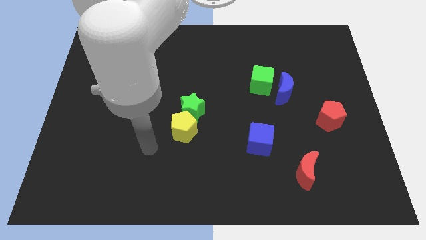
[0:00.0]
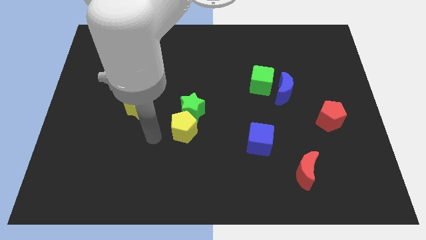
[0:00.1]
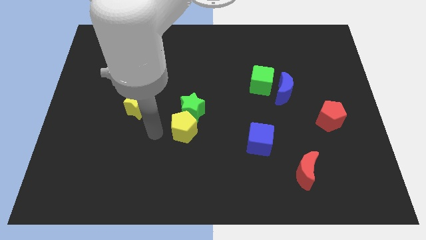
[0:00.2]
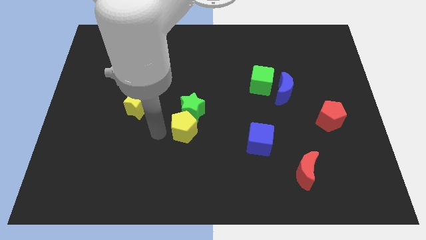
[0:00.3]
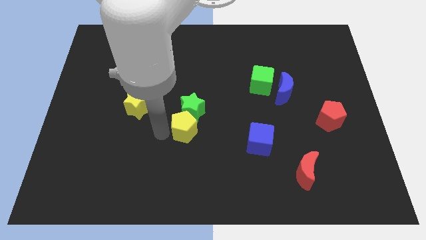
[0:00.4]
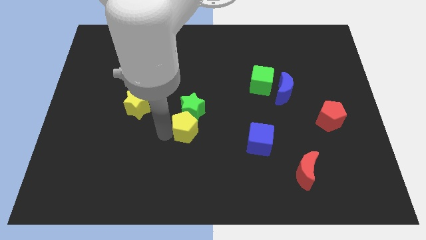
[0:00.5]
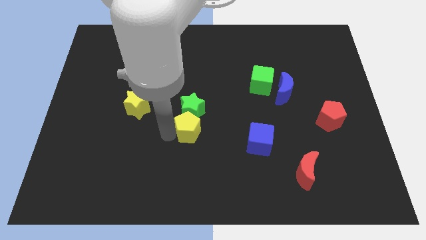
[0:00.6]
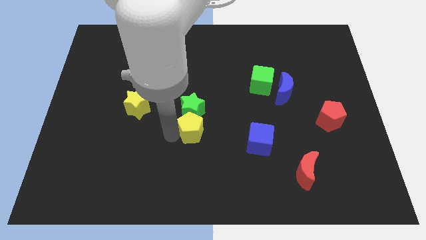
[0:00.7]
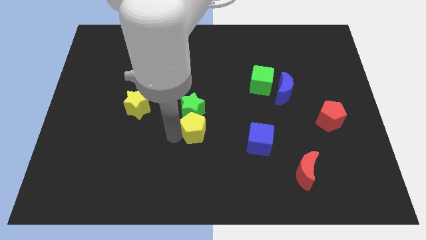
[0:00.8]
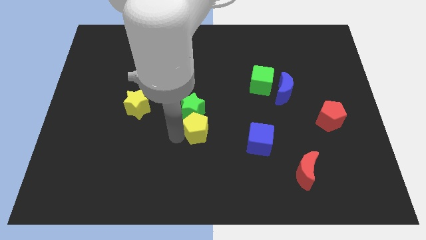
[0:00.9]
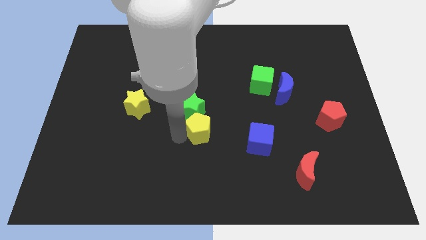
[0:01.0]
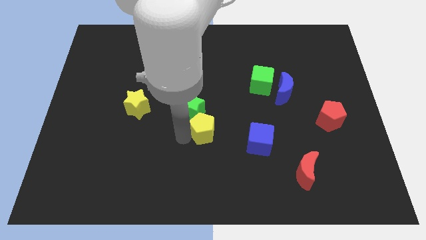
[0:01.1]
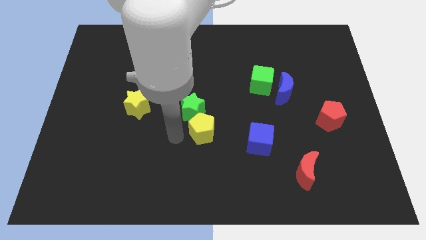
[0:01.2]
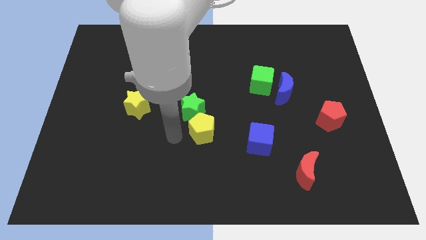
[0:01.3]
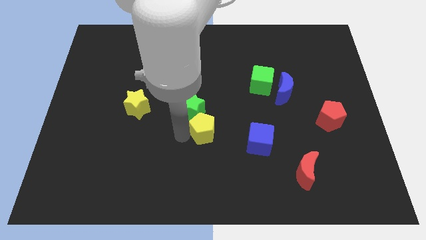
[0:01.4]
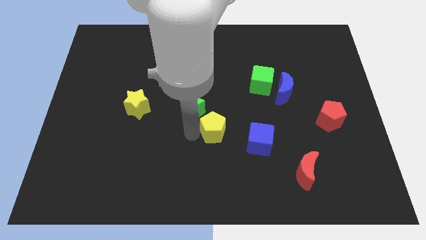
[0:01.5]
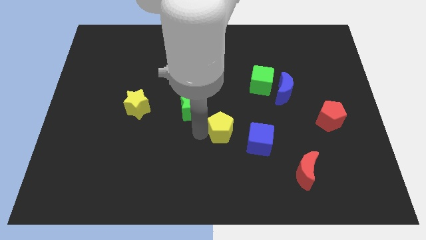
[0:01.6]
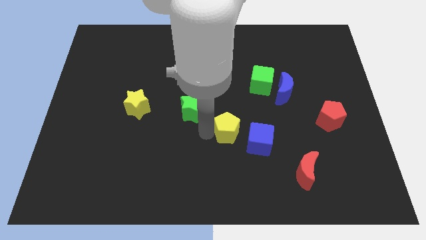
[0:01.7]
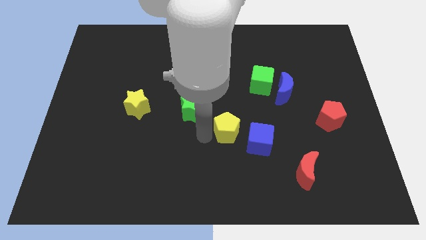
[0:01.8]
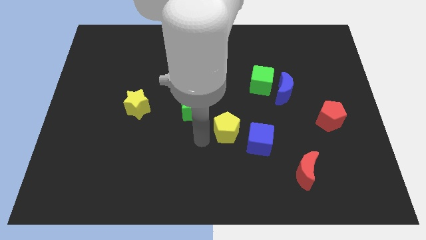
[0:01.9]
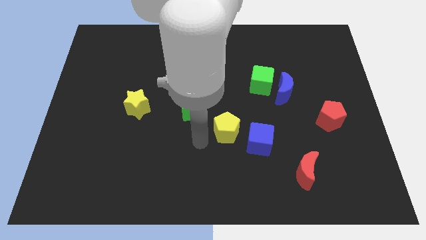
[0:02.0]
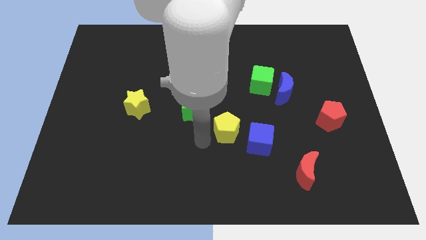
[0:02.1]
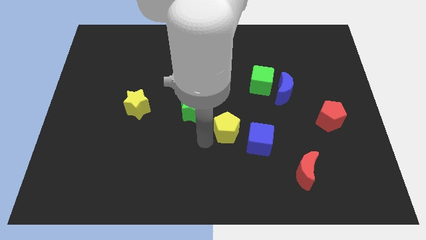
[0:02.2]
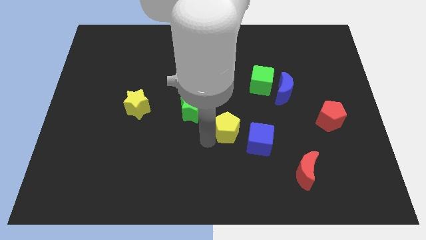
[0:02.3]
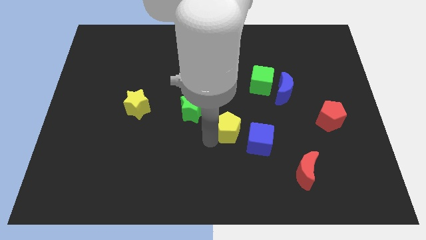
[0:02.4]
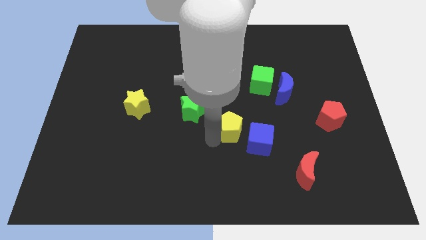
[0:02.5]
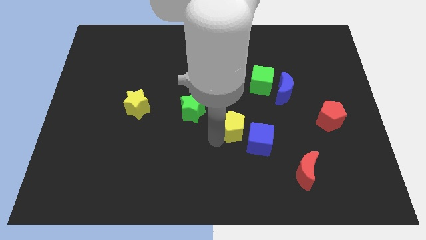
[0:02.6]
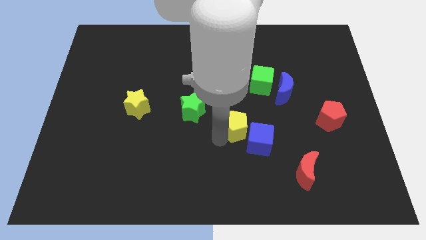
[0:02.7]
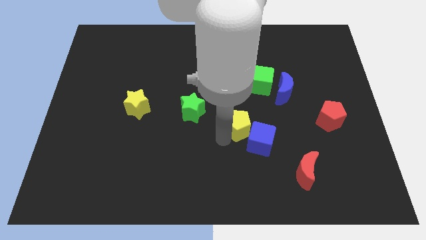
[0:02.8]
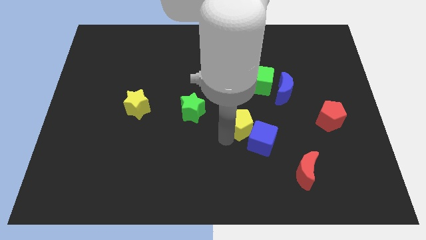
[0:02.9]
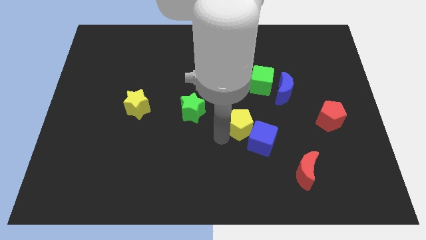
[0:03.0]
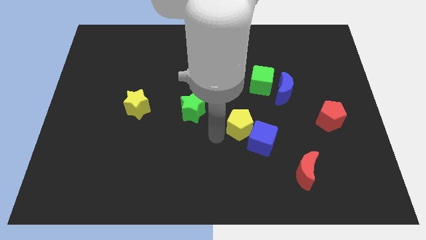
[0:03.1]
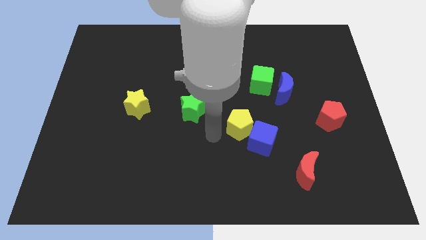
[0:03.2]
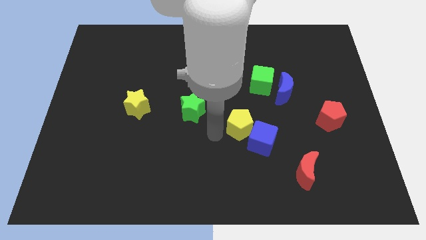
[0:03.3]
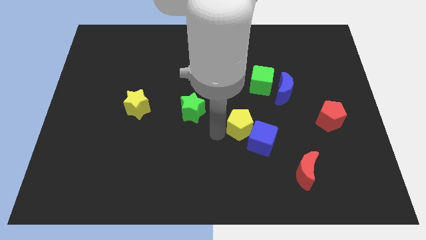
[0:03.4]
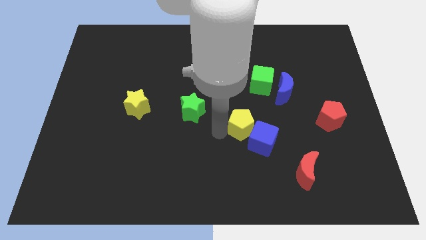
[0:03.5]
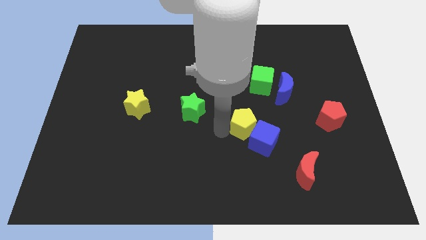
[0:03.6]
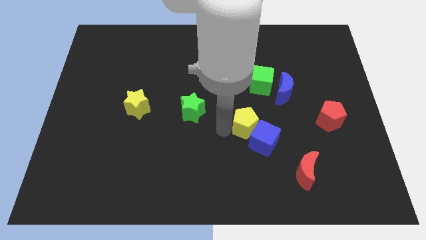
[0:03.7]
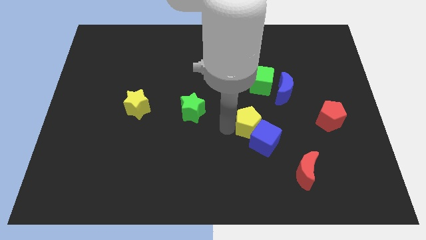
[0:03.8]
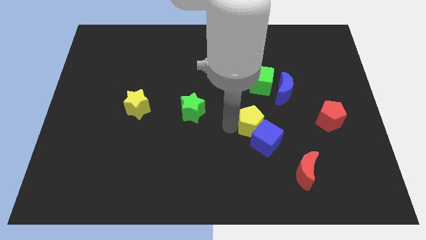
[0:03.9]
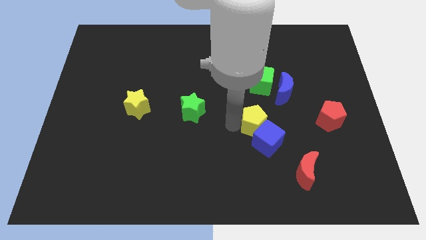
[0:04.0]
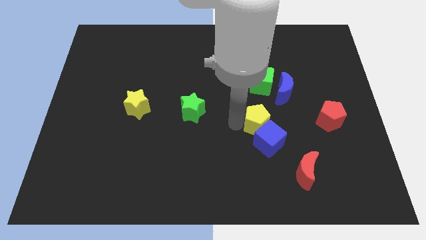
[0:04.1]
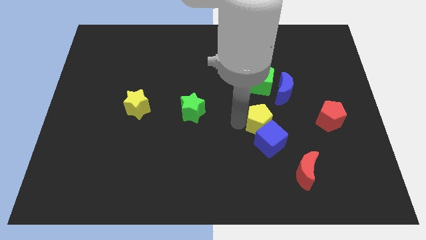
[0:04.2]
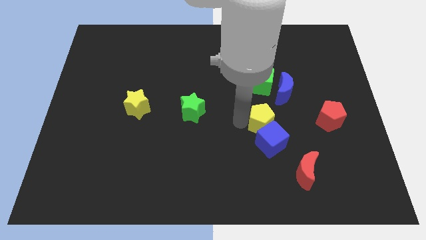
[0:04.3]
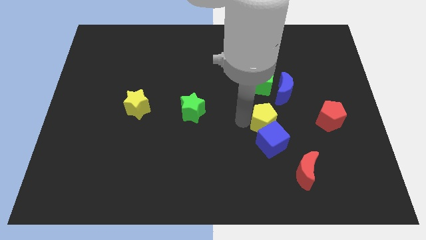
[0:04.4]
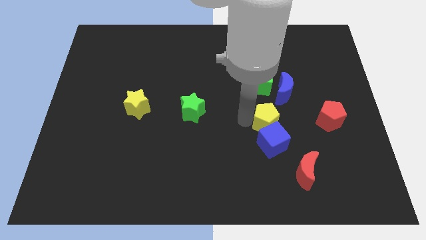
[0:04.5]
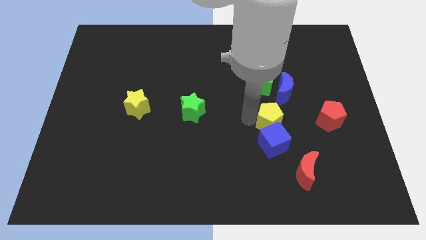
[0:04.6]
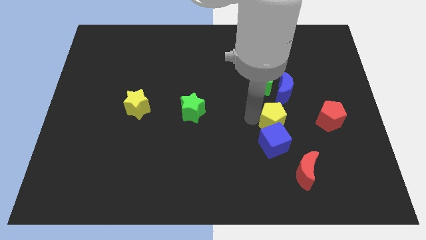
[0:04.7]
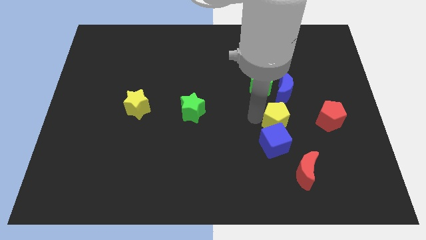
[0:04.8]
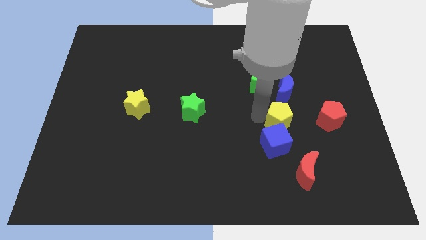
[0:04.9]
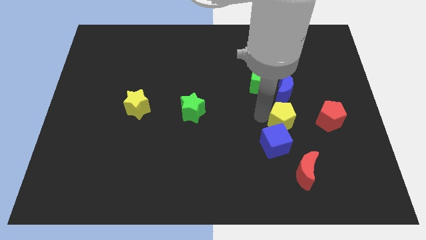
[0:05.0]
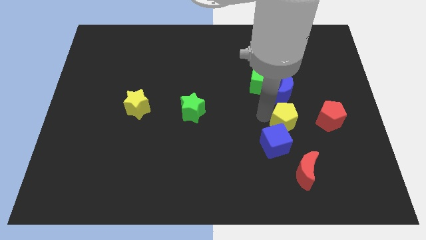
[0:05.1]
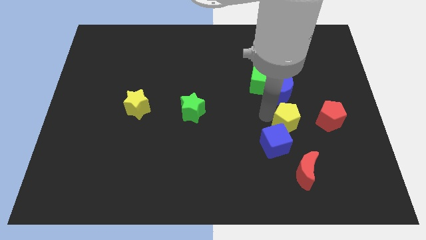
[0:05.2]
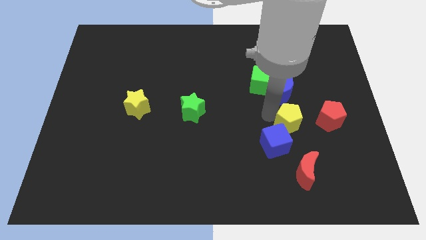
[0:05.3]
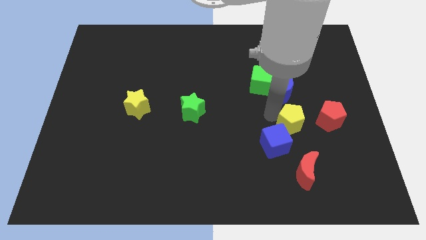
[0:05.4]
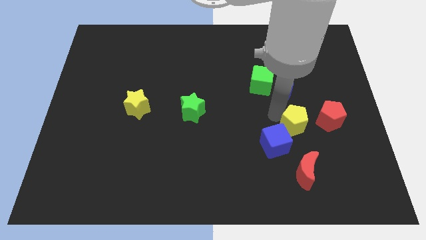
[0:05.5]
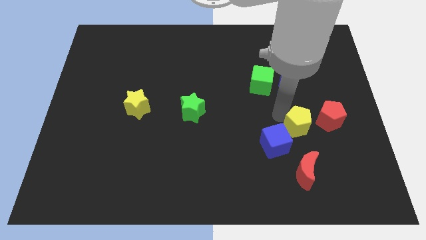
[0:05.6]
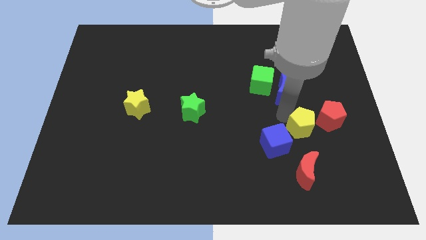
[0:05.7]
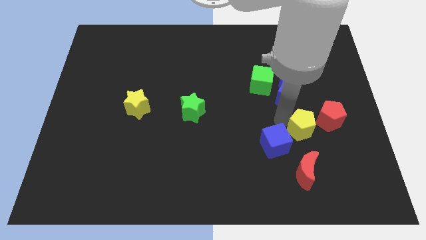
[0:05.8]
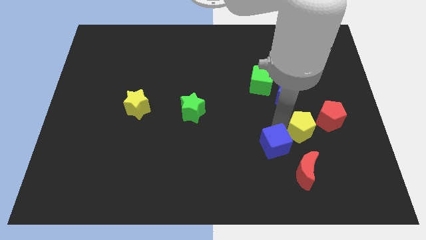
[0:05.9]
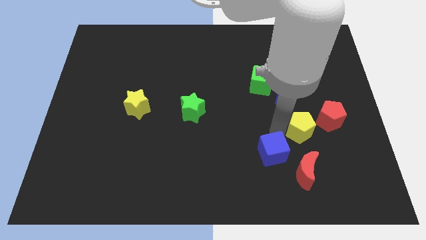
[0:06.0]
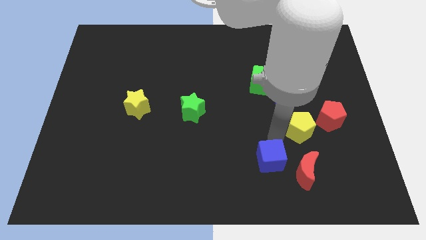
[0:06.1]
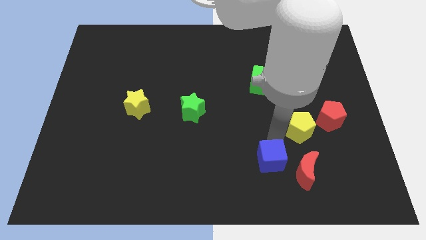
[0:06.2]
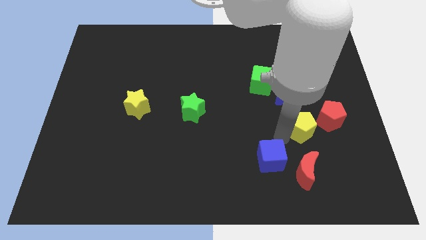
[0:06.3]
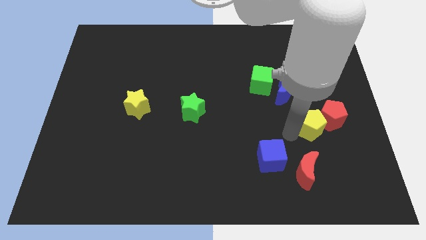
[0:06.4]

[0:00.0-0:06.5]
push the yellow pentagon towards the red pentagon

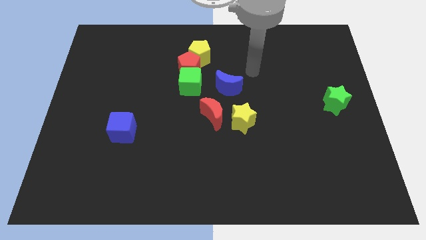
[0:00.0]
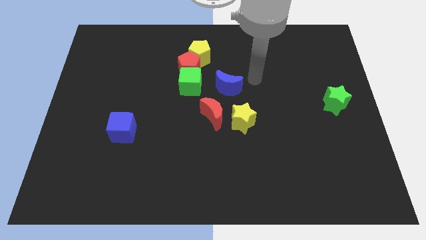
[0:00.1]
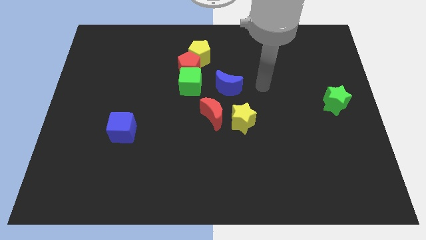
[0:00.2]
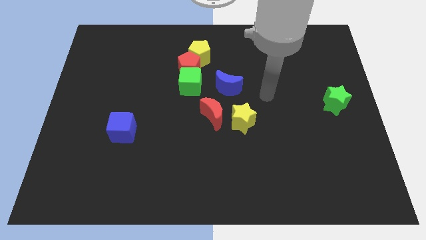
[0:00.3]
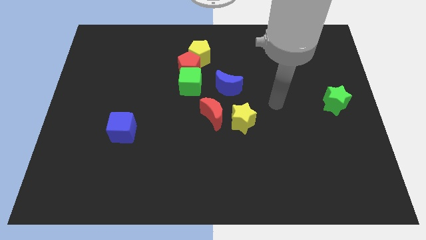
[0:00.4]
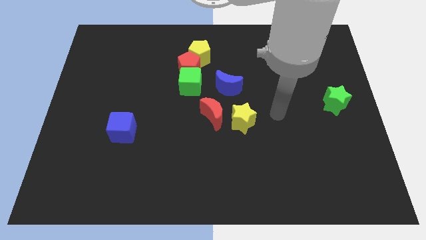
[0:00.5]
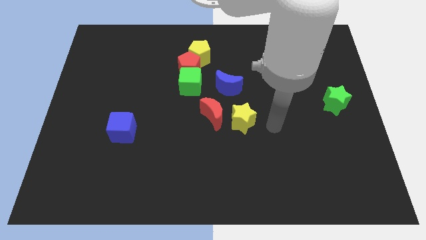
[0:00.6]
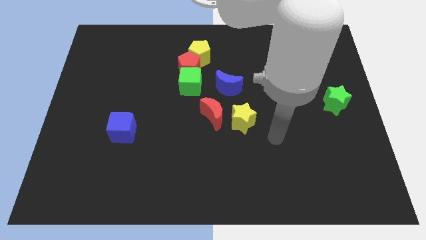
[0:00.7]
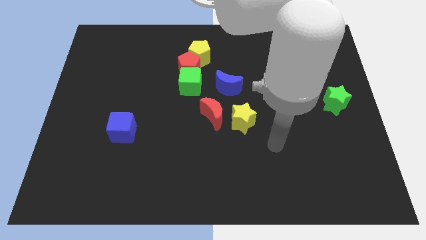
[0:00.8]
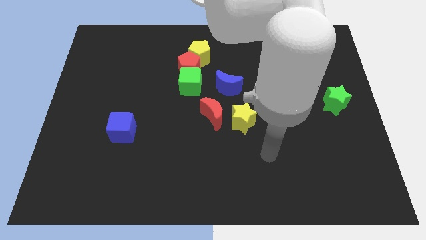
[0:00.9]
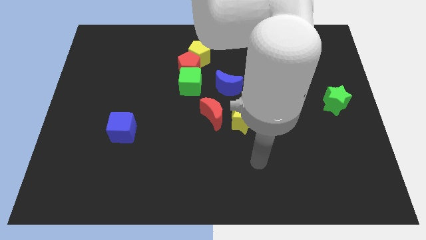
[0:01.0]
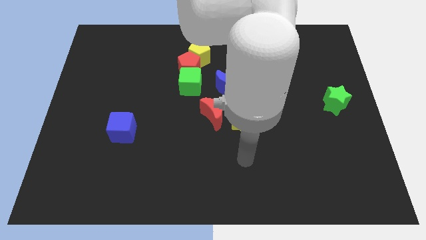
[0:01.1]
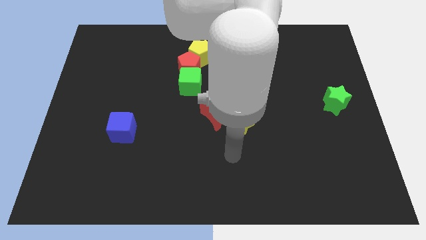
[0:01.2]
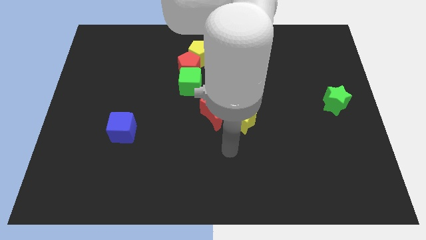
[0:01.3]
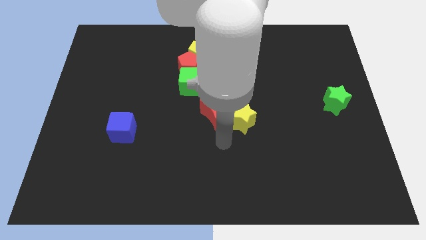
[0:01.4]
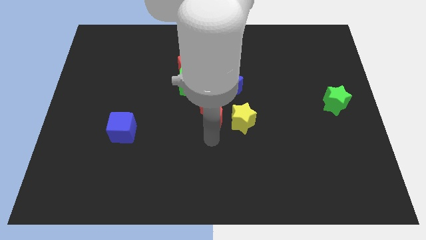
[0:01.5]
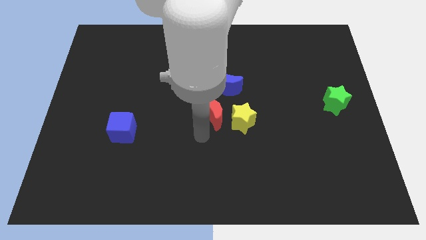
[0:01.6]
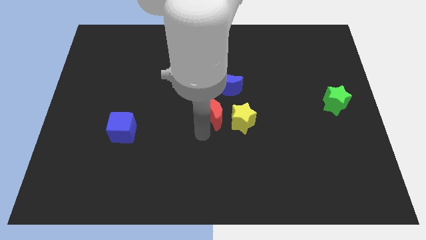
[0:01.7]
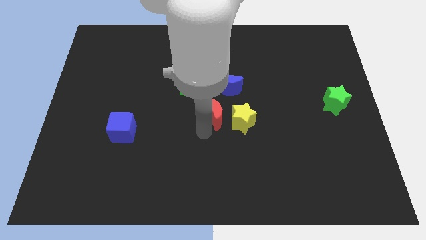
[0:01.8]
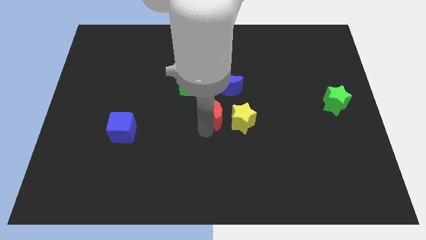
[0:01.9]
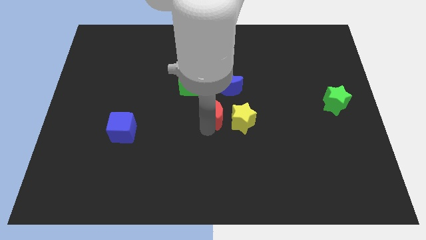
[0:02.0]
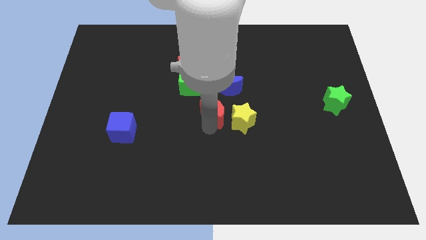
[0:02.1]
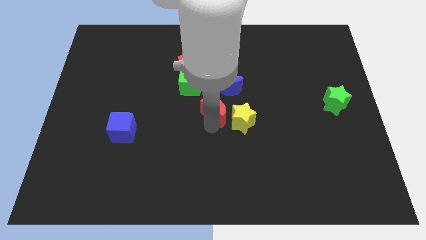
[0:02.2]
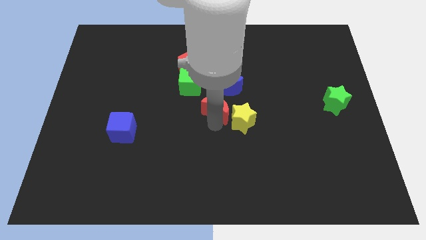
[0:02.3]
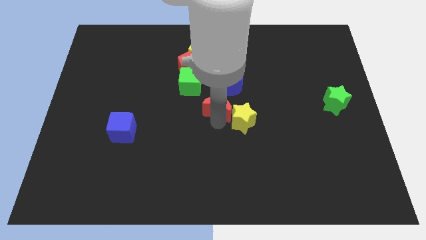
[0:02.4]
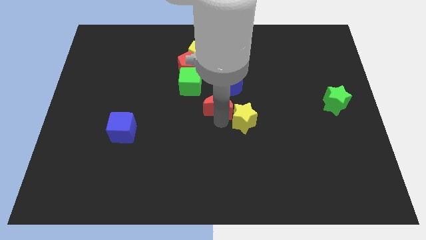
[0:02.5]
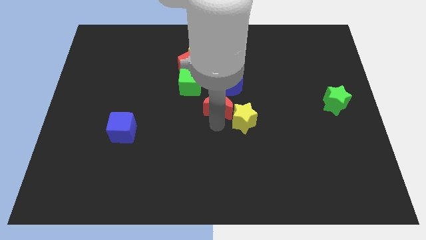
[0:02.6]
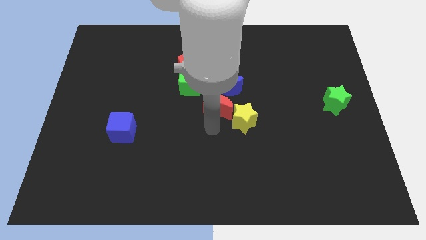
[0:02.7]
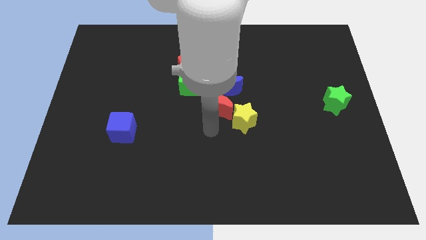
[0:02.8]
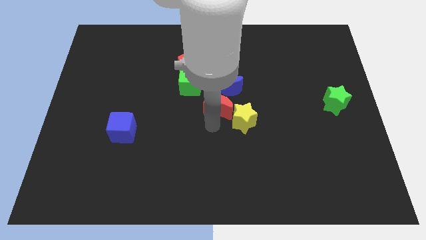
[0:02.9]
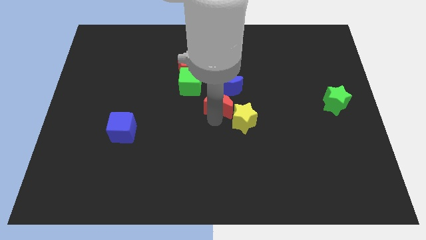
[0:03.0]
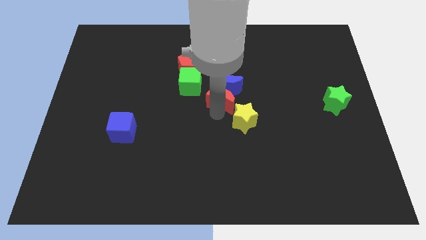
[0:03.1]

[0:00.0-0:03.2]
push the red moon to the blue moon
